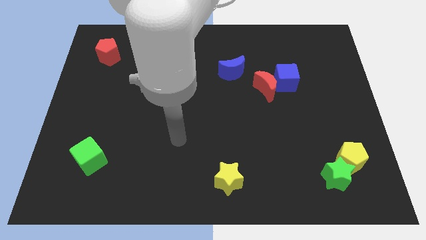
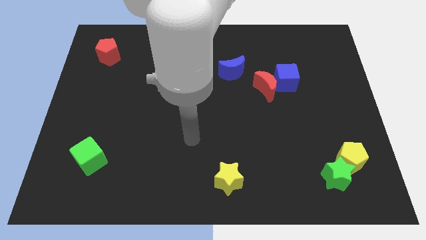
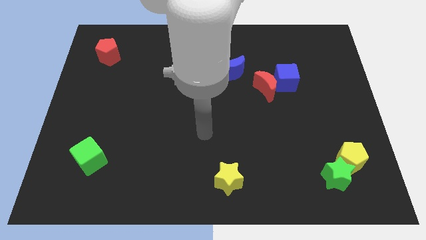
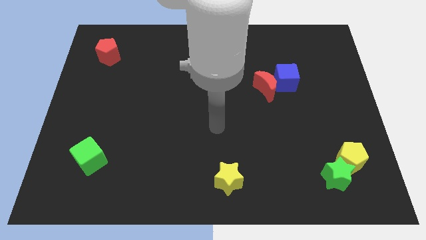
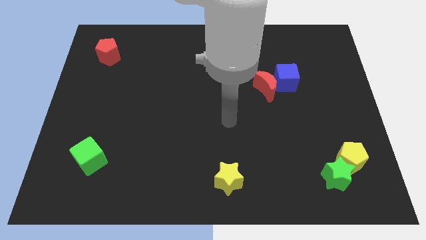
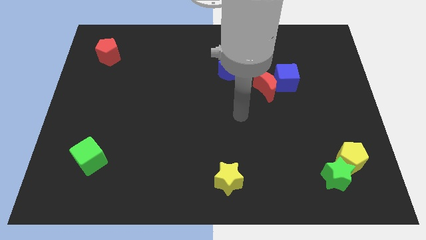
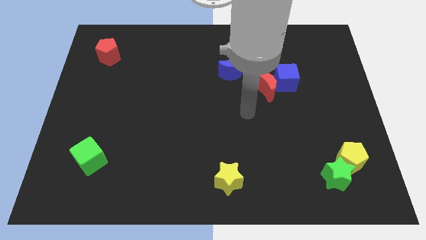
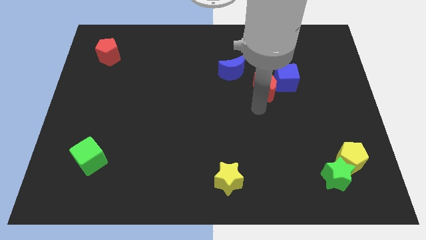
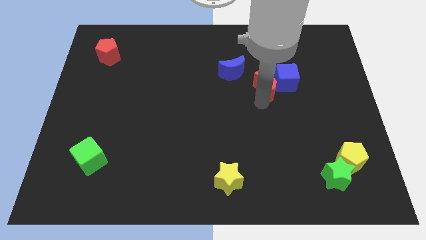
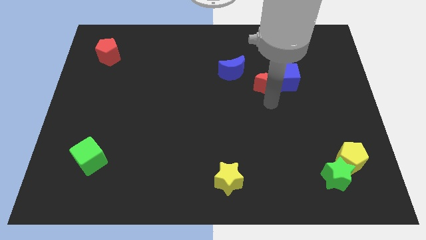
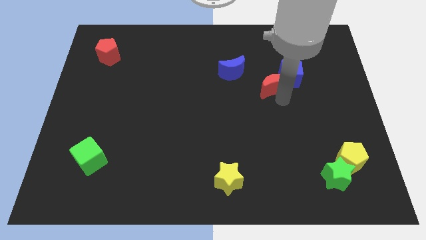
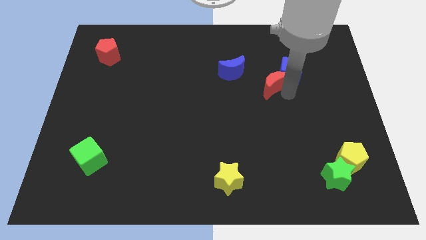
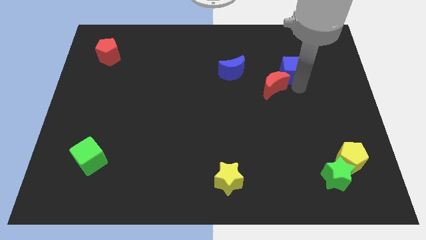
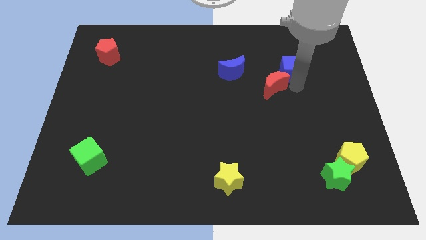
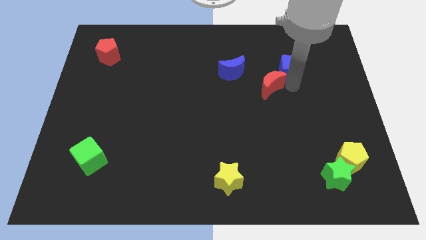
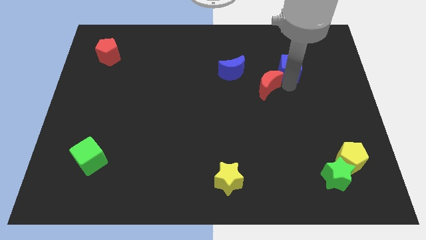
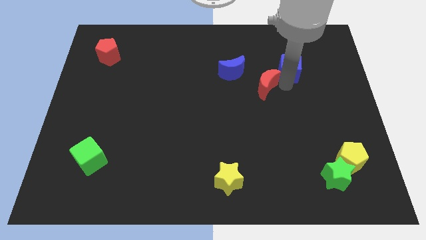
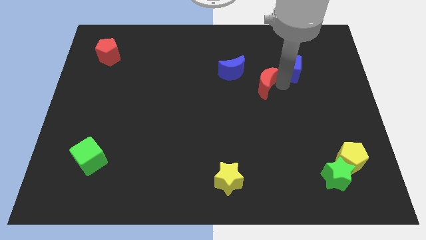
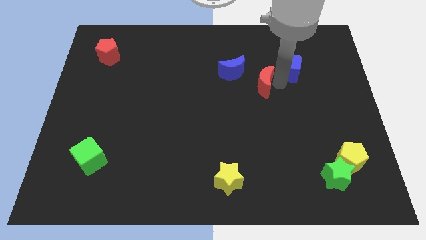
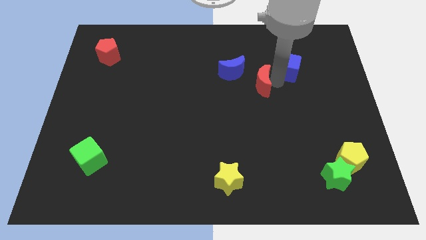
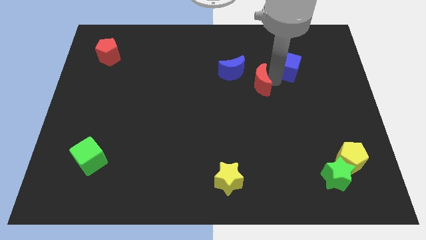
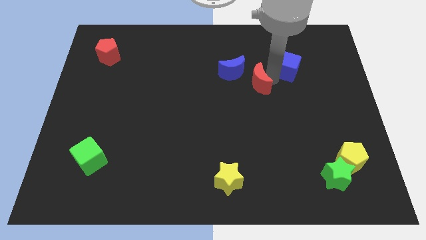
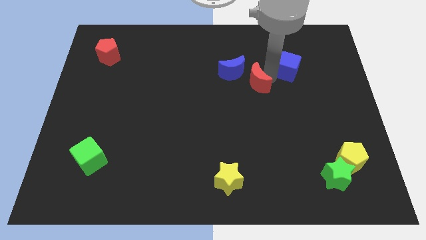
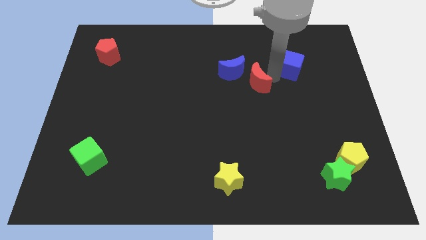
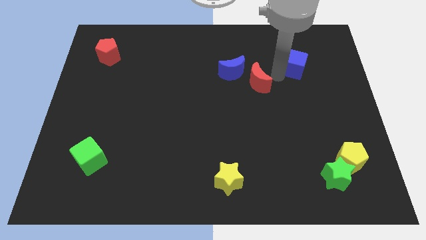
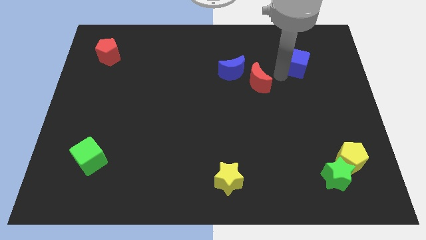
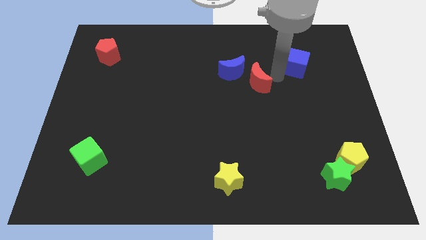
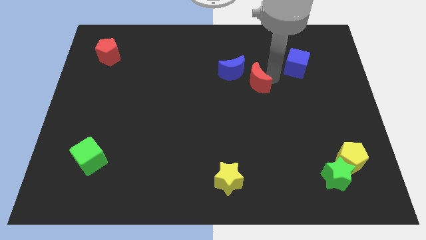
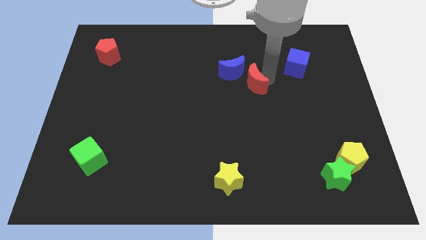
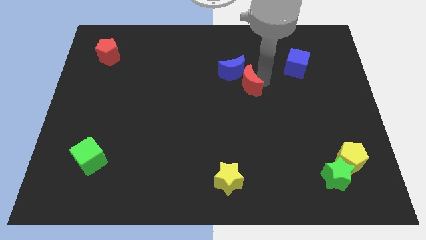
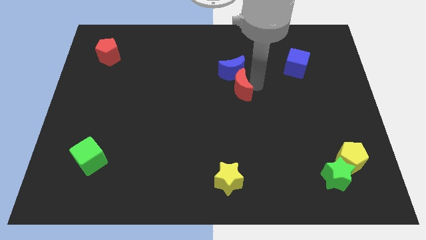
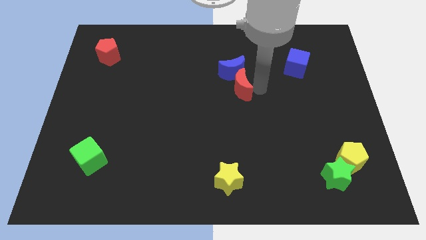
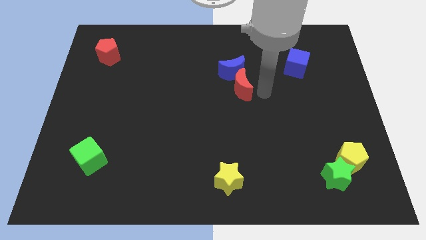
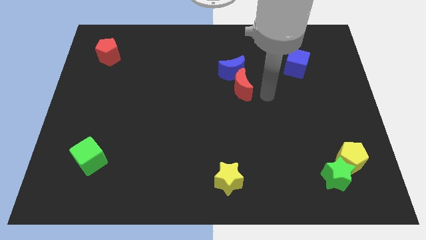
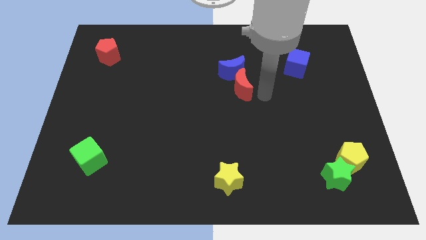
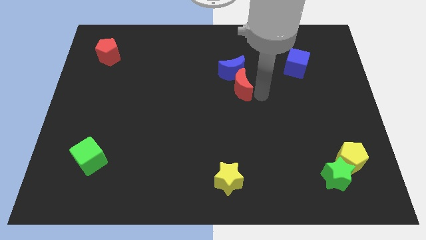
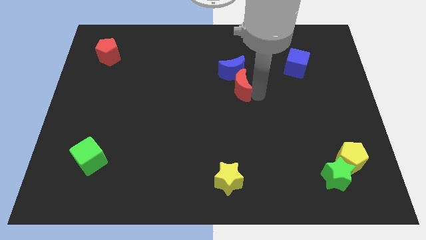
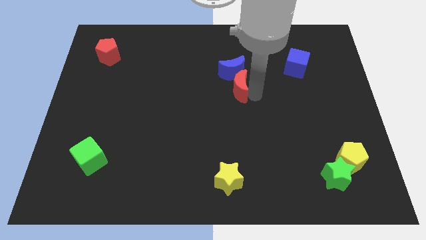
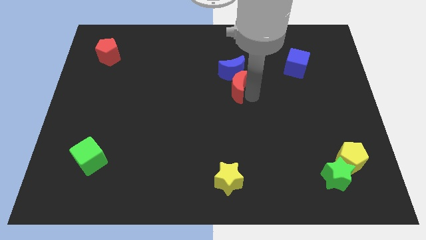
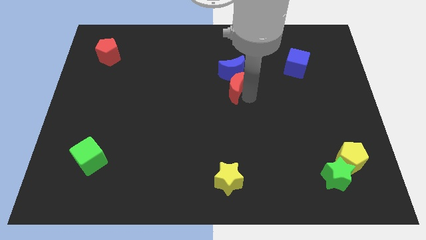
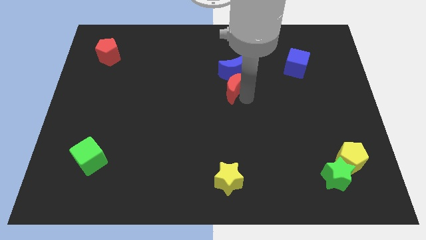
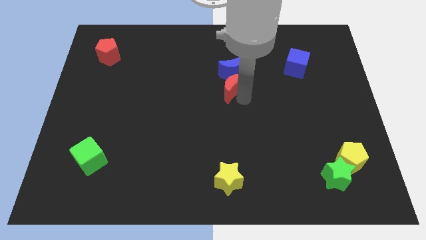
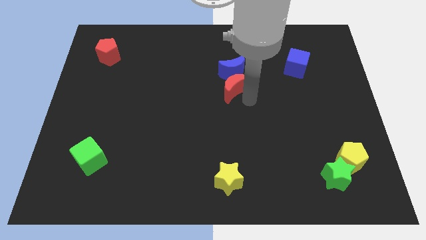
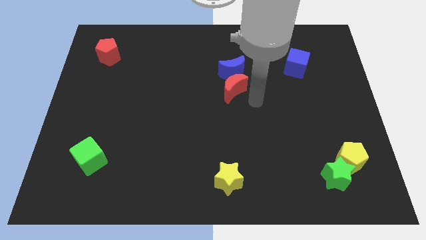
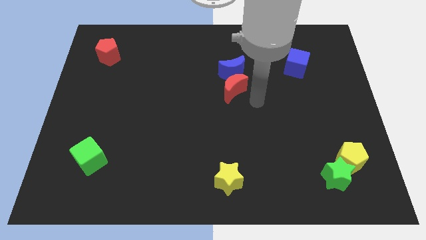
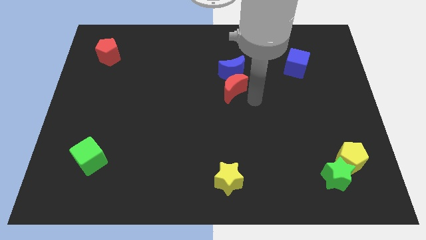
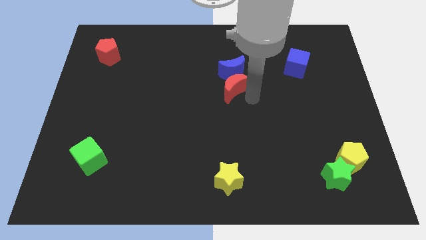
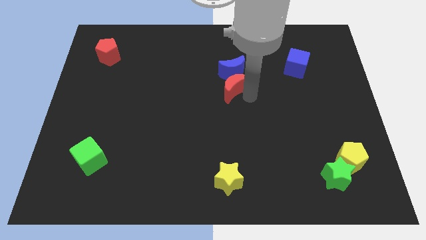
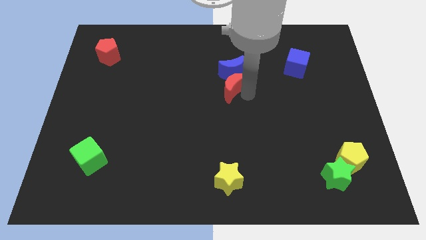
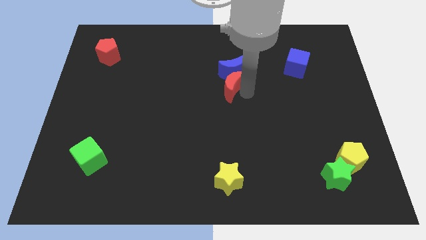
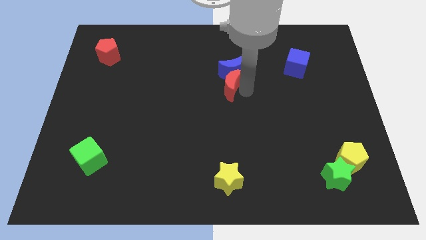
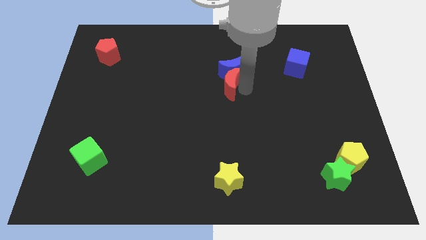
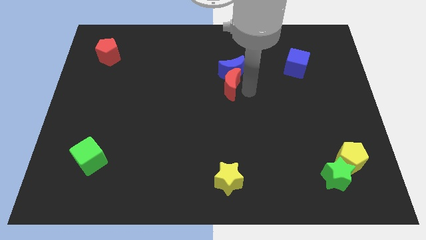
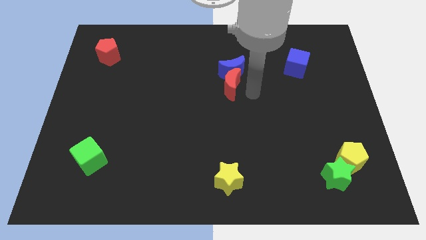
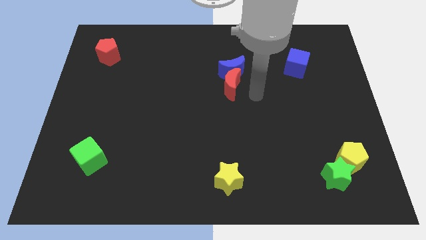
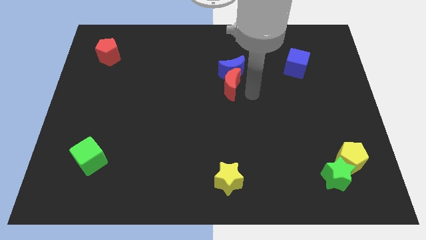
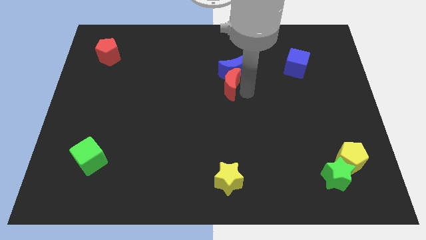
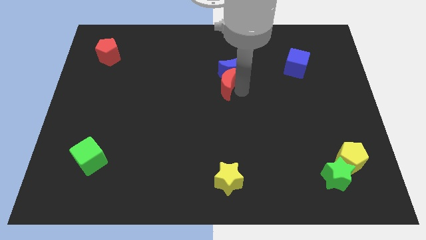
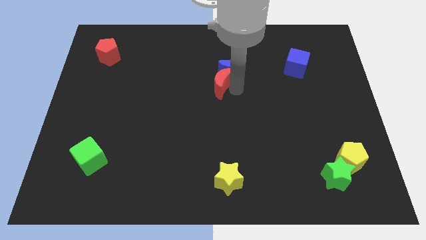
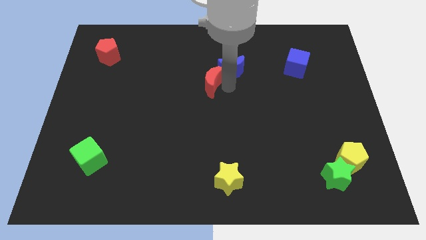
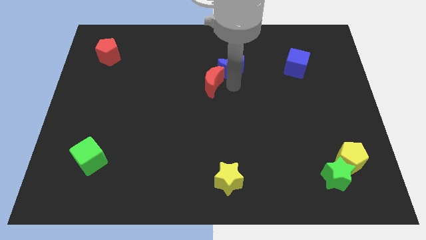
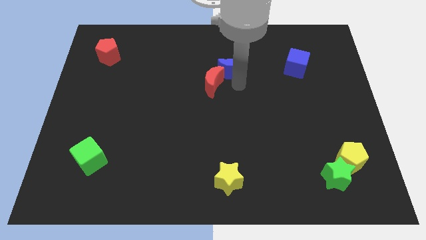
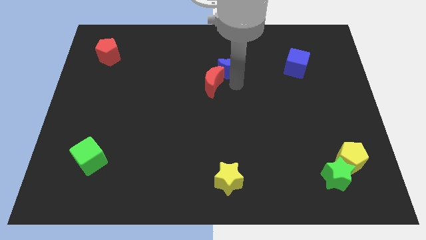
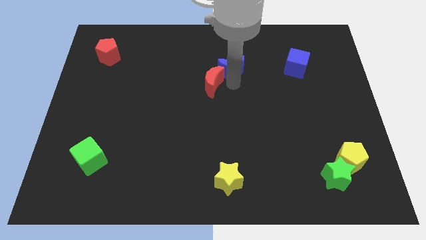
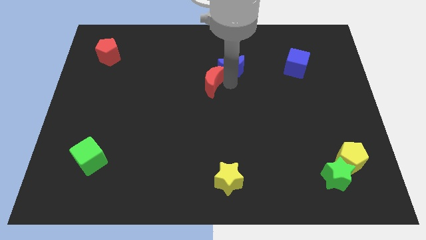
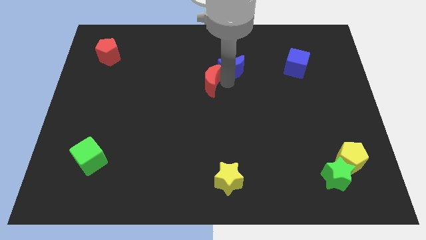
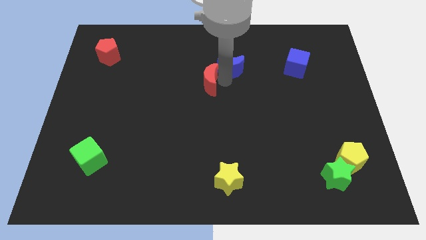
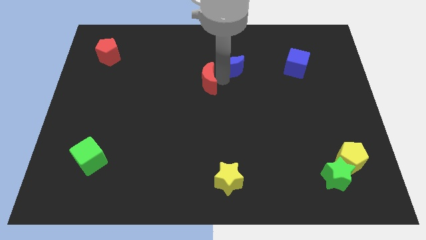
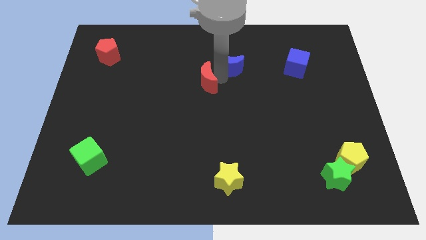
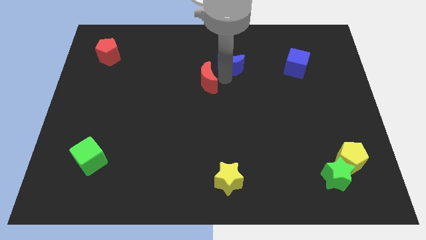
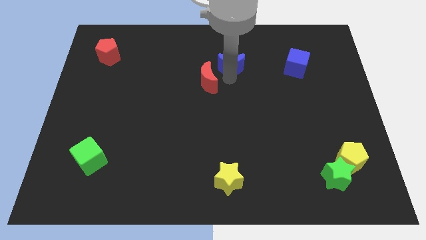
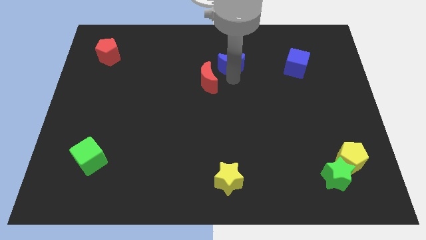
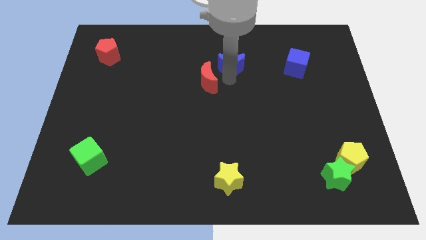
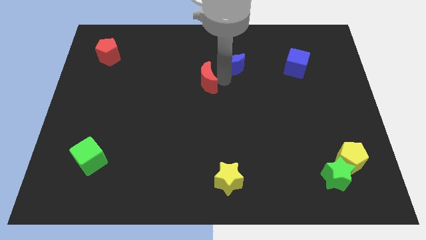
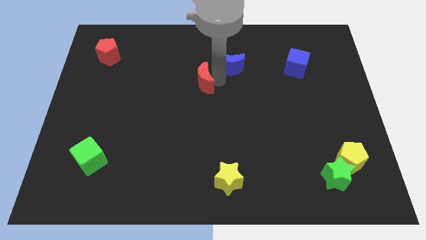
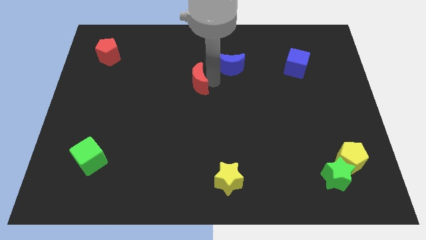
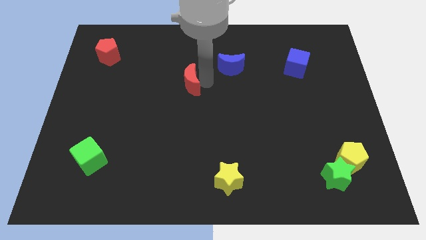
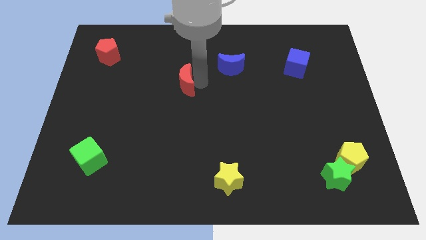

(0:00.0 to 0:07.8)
slide the red moon left

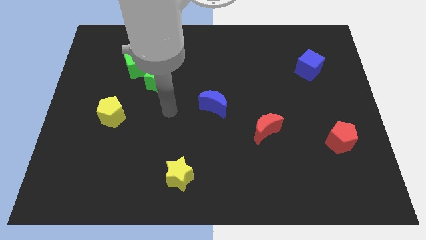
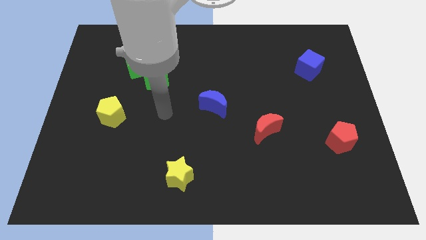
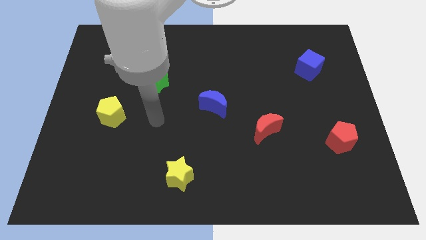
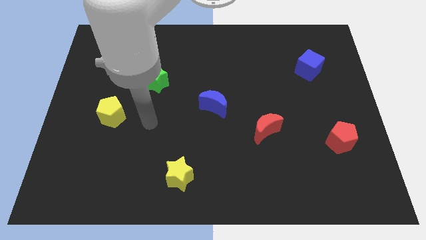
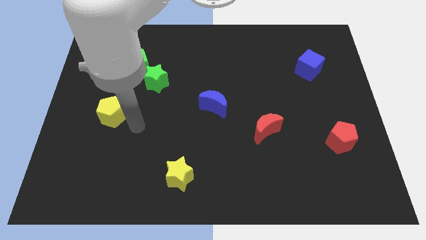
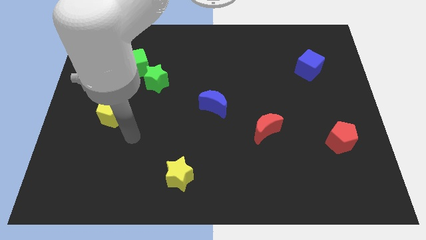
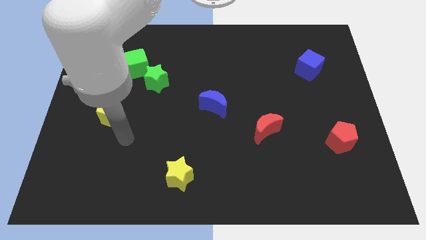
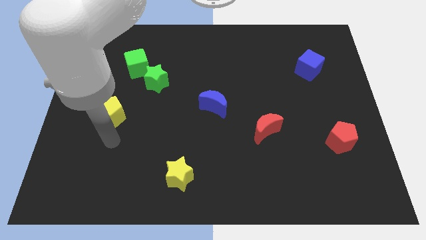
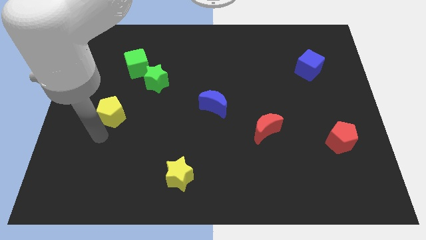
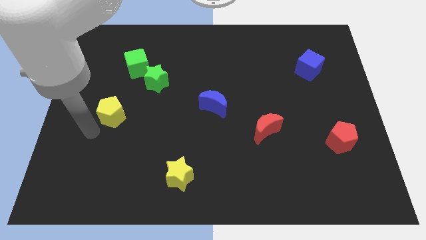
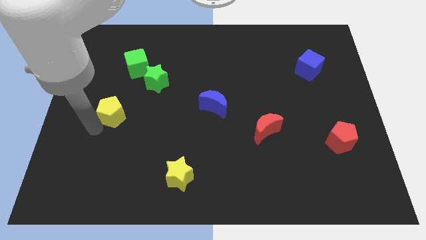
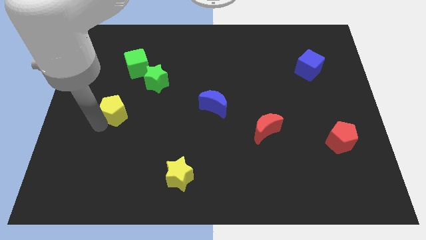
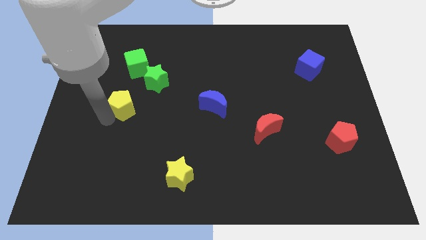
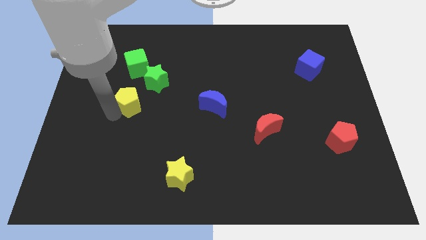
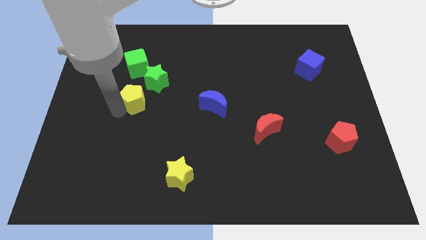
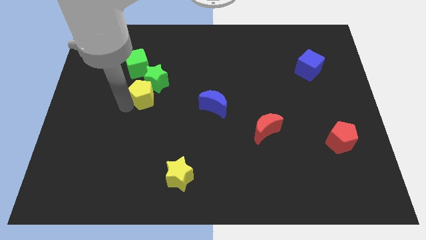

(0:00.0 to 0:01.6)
slightly move the yellow pentagon diagonally up and to the right
